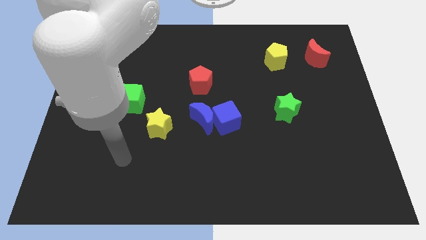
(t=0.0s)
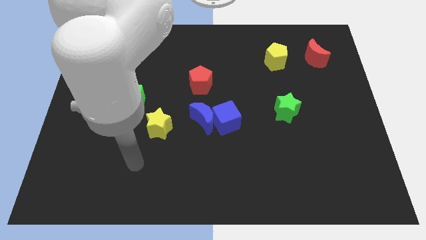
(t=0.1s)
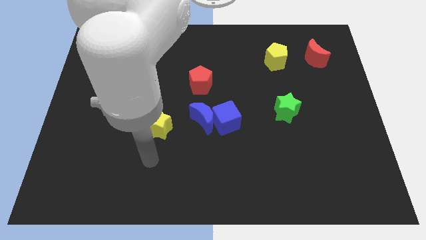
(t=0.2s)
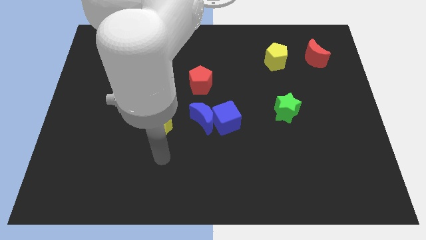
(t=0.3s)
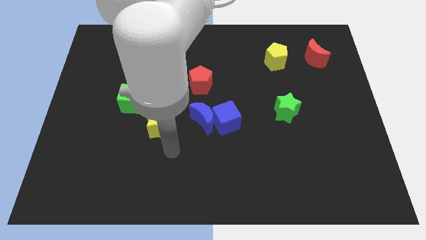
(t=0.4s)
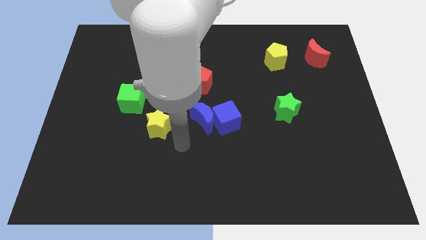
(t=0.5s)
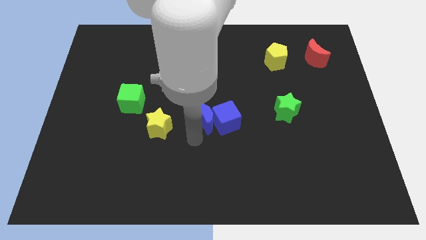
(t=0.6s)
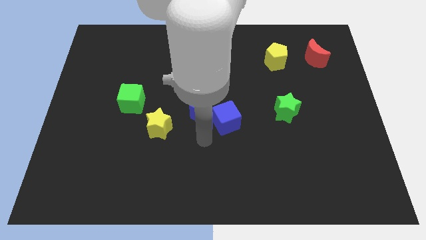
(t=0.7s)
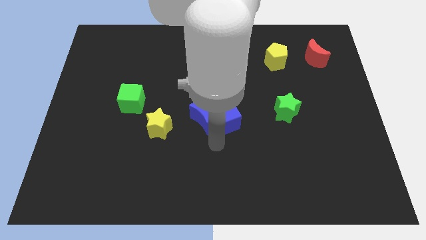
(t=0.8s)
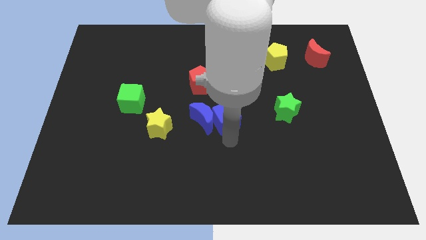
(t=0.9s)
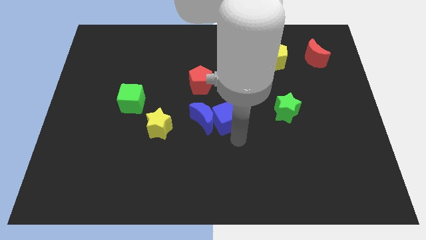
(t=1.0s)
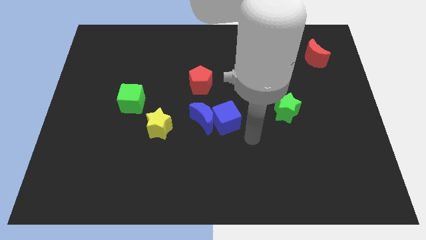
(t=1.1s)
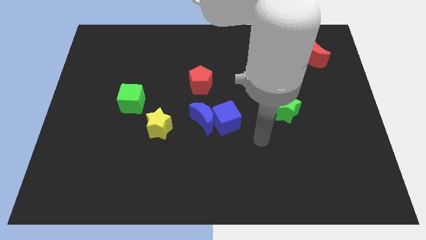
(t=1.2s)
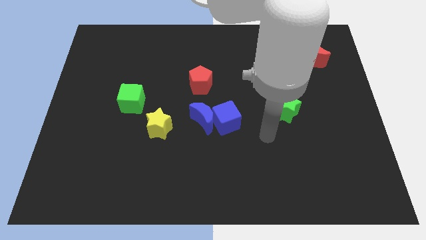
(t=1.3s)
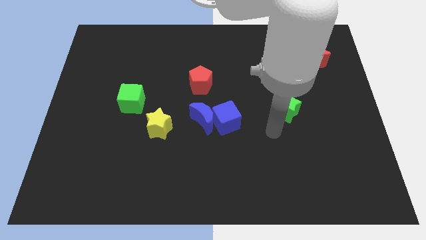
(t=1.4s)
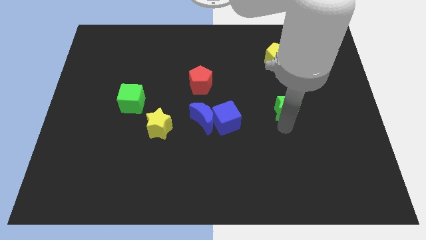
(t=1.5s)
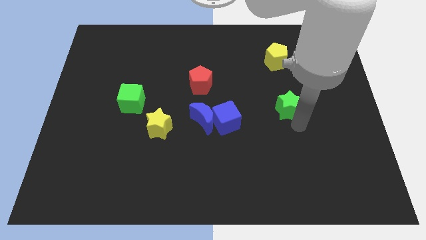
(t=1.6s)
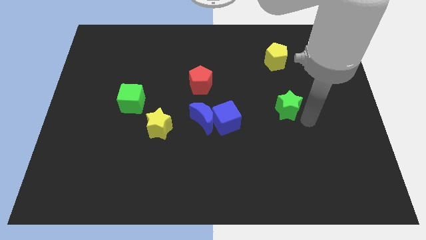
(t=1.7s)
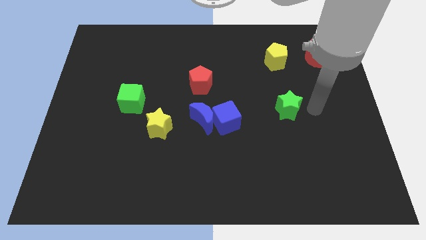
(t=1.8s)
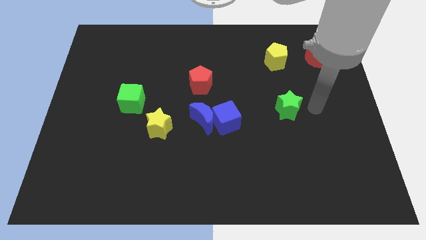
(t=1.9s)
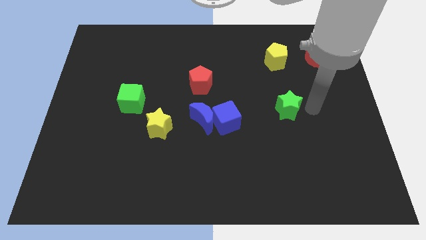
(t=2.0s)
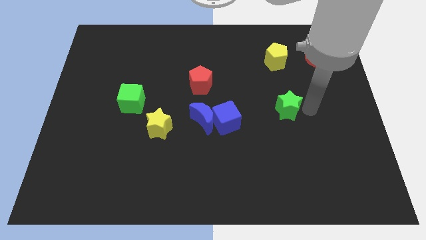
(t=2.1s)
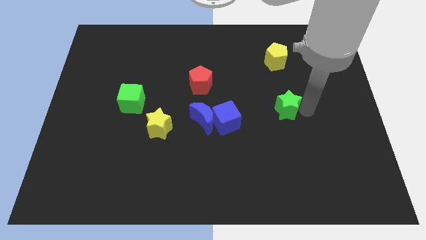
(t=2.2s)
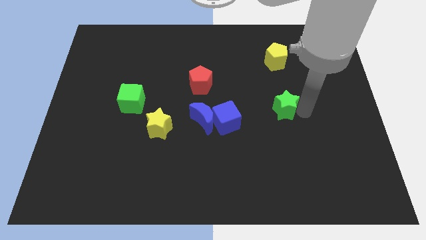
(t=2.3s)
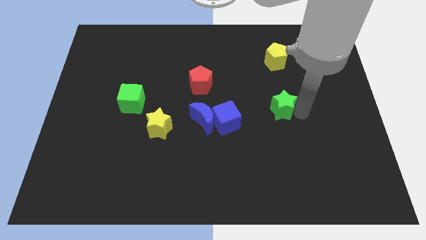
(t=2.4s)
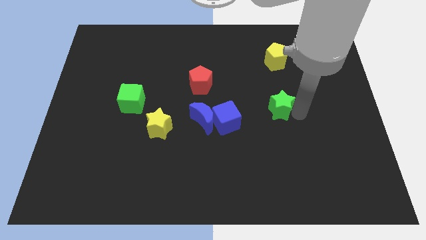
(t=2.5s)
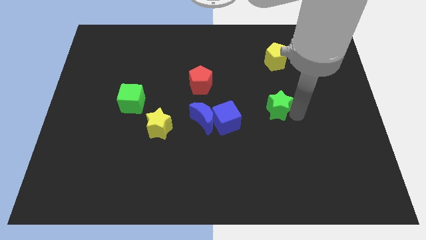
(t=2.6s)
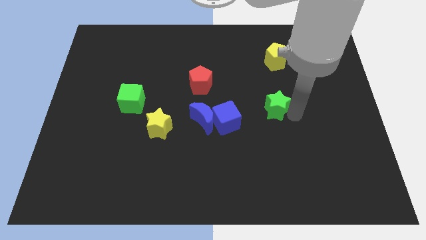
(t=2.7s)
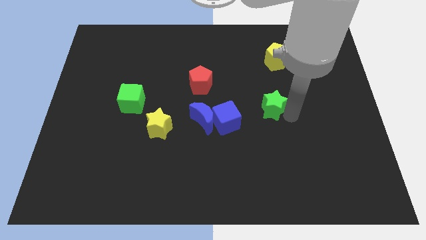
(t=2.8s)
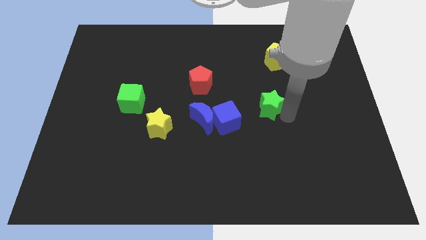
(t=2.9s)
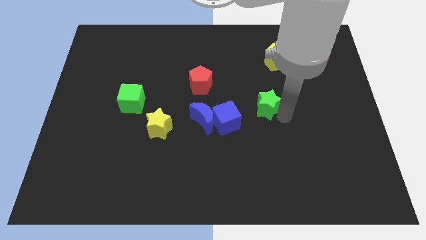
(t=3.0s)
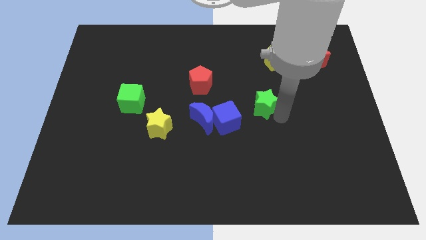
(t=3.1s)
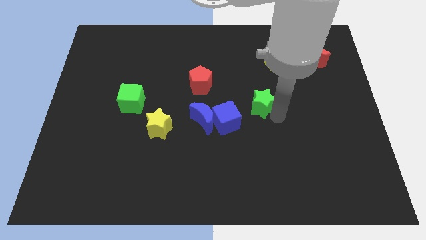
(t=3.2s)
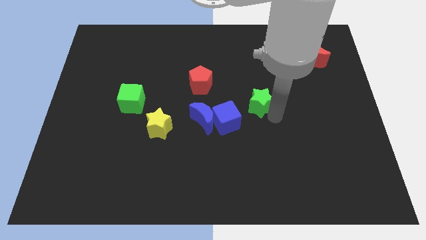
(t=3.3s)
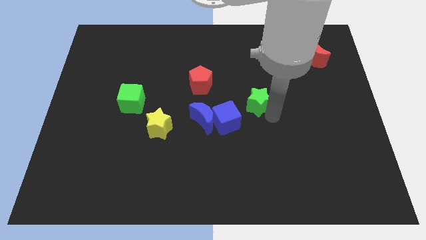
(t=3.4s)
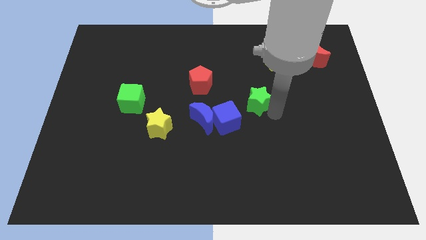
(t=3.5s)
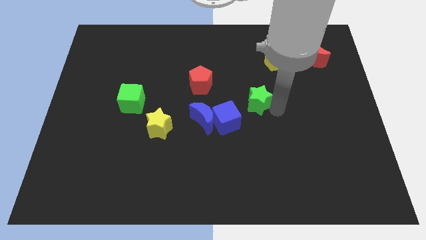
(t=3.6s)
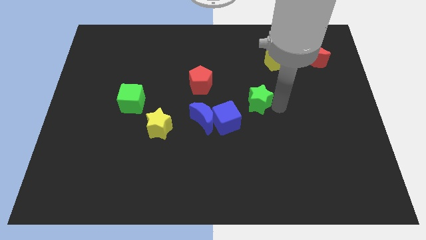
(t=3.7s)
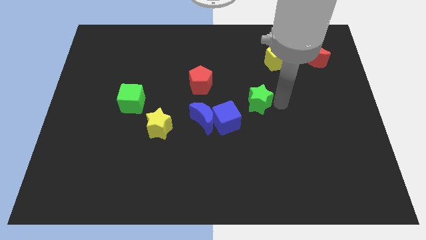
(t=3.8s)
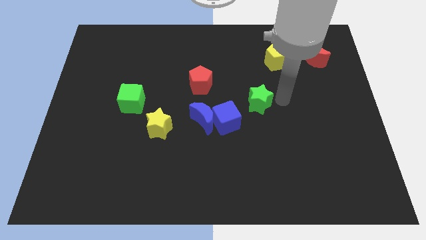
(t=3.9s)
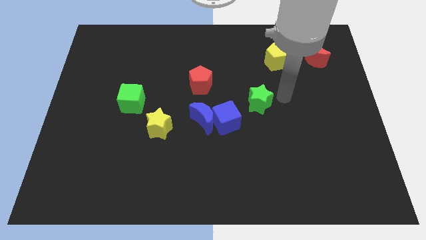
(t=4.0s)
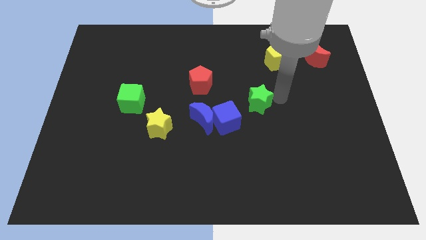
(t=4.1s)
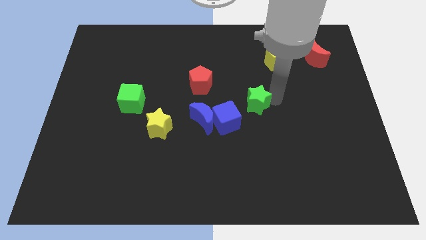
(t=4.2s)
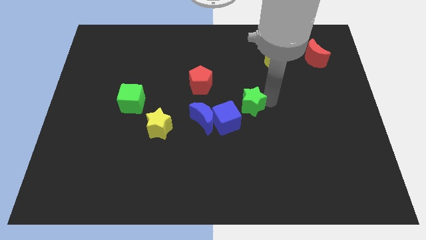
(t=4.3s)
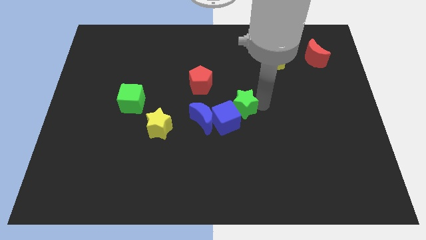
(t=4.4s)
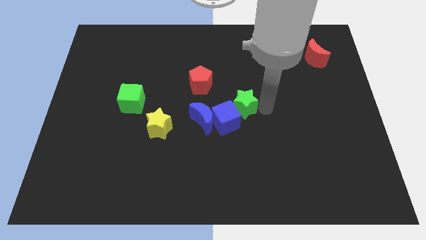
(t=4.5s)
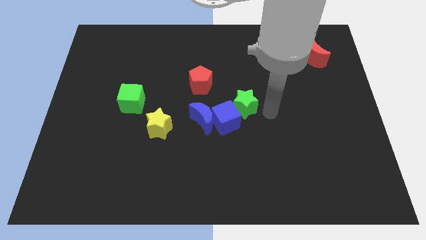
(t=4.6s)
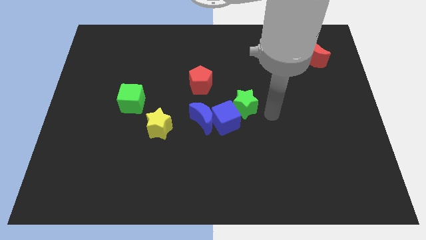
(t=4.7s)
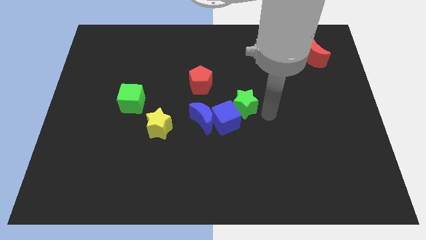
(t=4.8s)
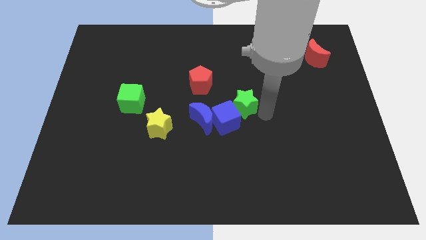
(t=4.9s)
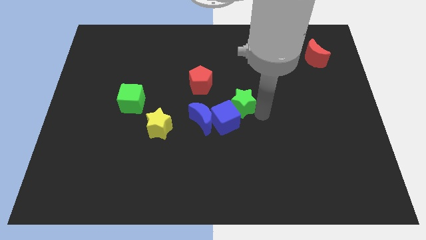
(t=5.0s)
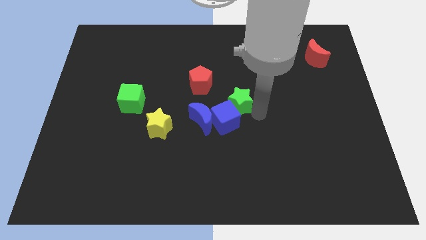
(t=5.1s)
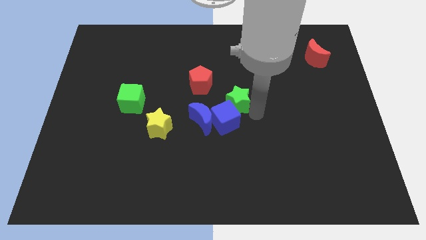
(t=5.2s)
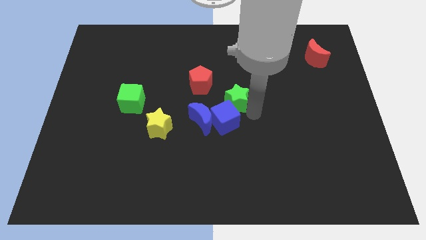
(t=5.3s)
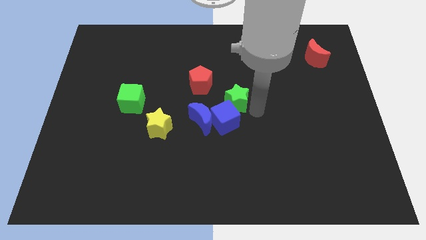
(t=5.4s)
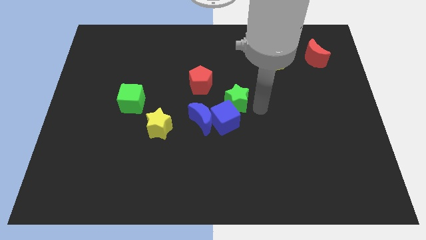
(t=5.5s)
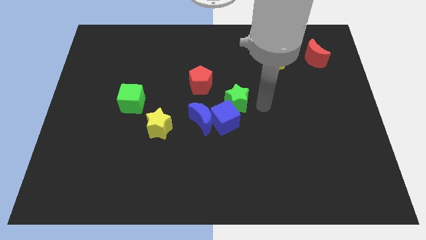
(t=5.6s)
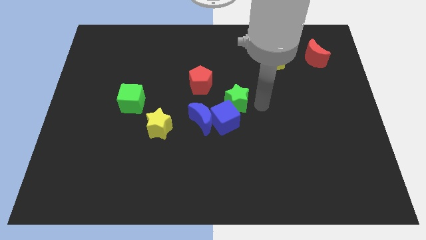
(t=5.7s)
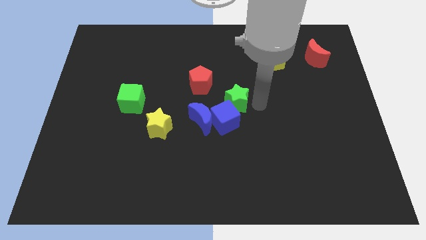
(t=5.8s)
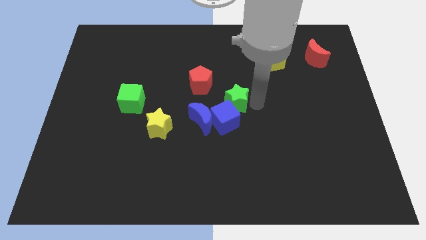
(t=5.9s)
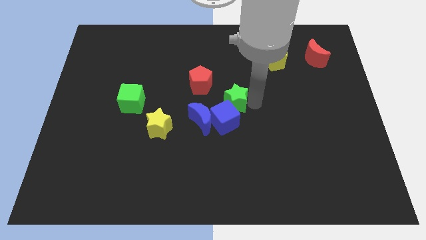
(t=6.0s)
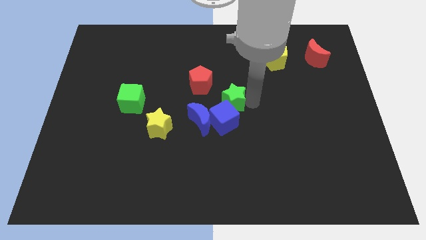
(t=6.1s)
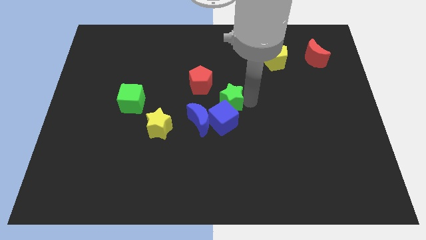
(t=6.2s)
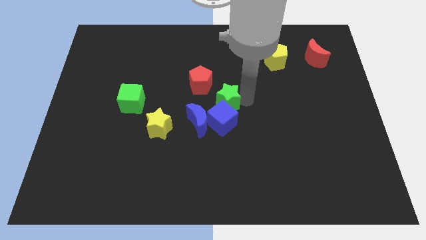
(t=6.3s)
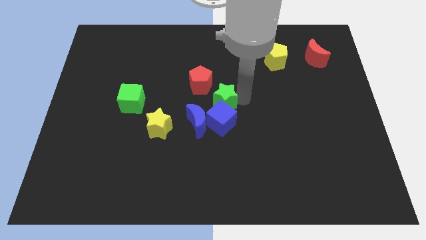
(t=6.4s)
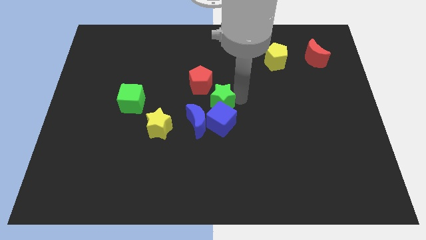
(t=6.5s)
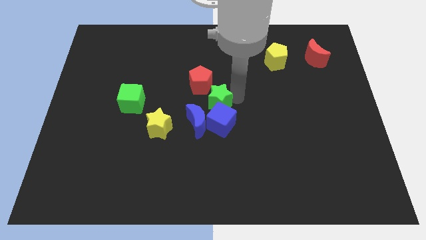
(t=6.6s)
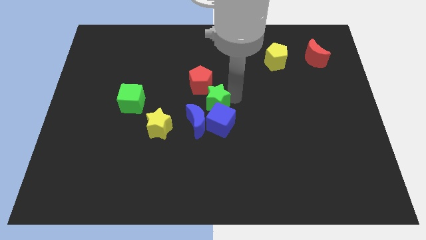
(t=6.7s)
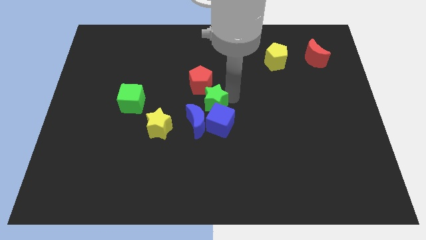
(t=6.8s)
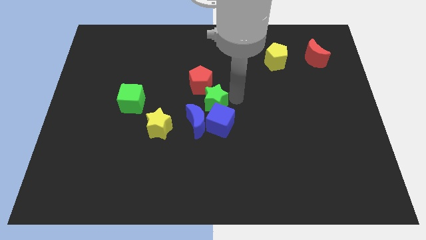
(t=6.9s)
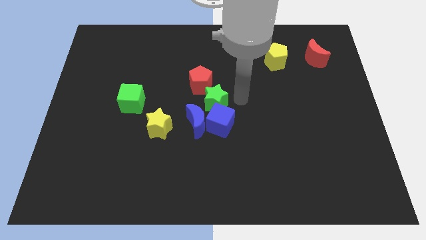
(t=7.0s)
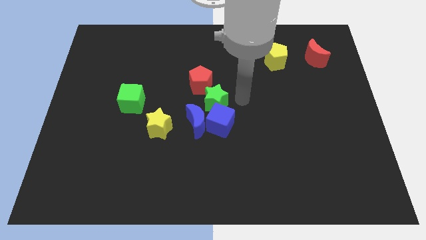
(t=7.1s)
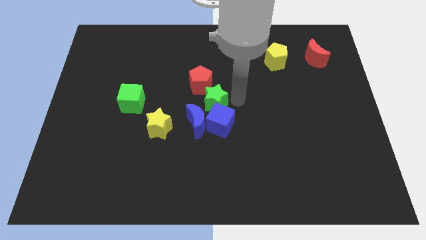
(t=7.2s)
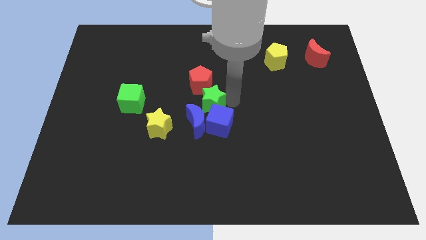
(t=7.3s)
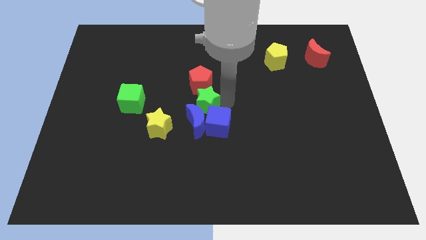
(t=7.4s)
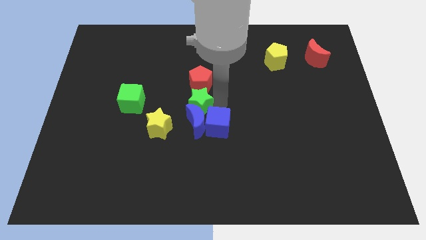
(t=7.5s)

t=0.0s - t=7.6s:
push the green star just right of the green cube
